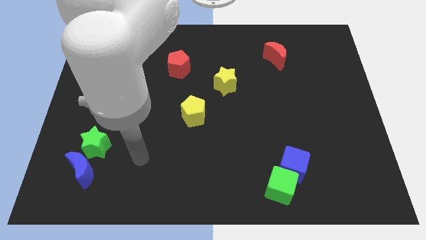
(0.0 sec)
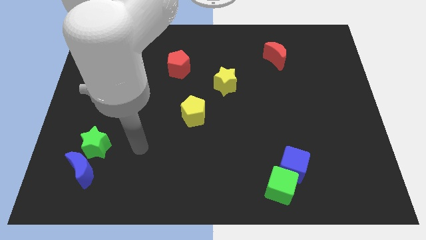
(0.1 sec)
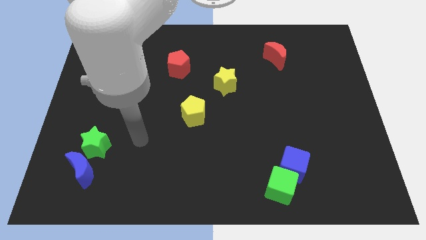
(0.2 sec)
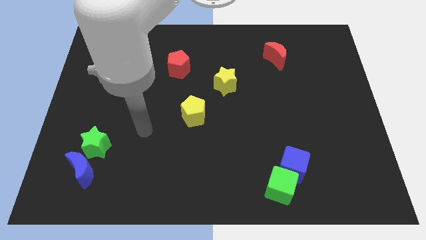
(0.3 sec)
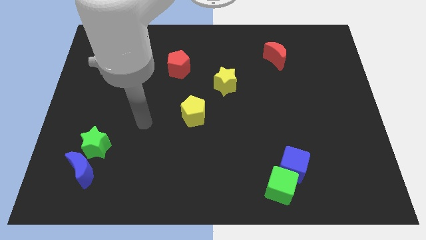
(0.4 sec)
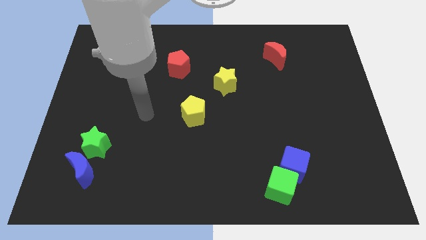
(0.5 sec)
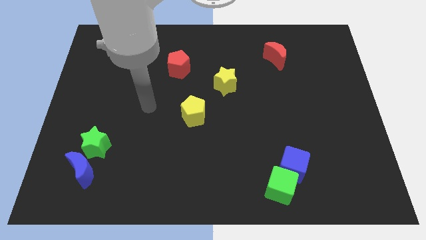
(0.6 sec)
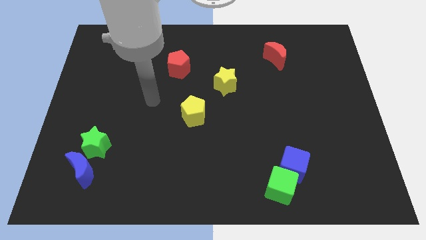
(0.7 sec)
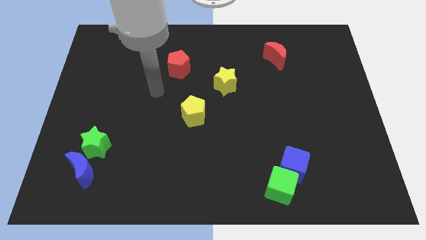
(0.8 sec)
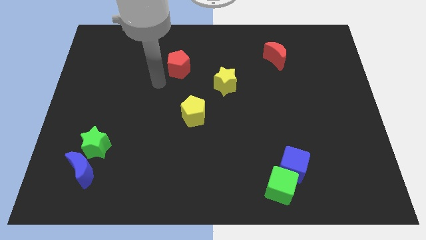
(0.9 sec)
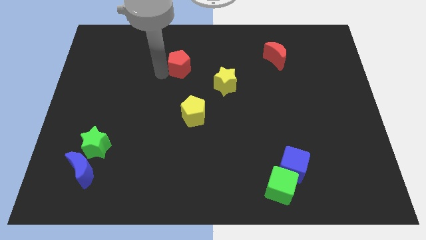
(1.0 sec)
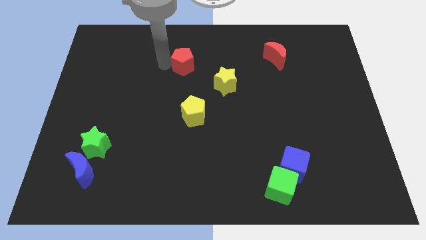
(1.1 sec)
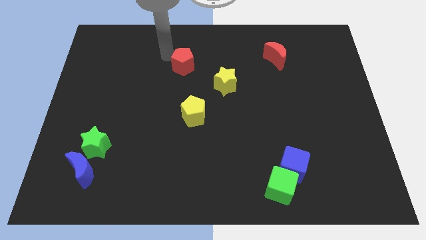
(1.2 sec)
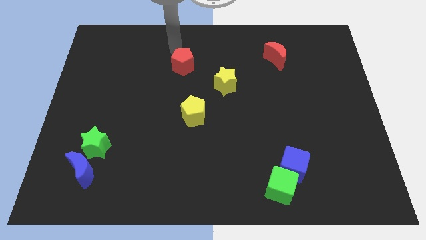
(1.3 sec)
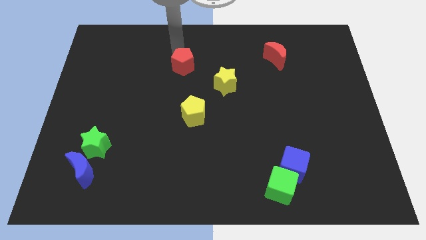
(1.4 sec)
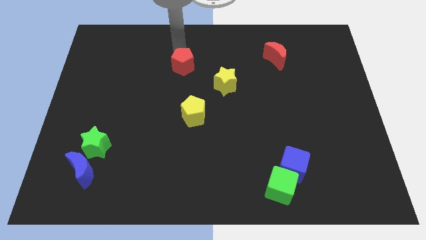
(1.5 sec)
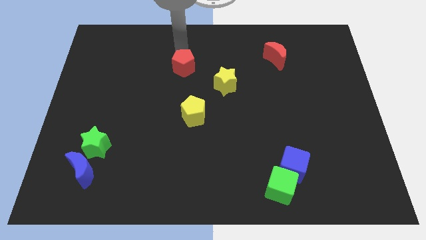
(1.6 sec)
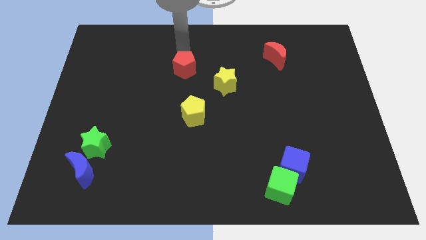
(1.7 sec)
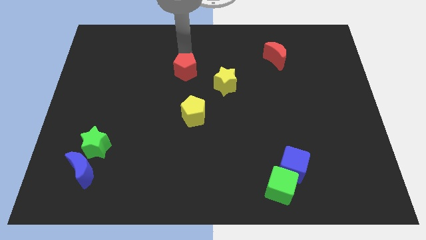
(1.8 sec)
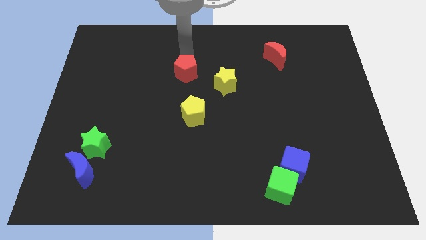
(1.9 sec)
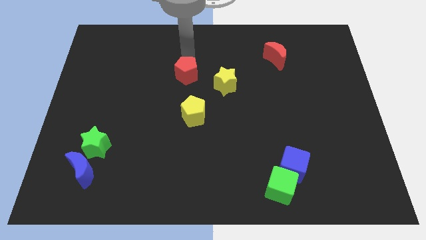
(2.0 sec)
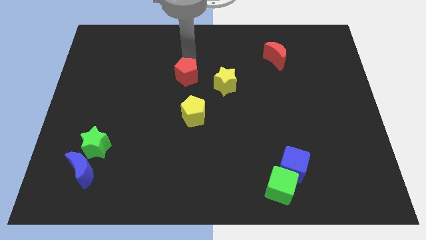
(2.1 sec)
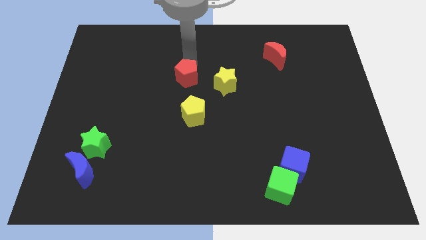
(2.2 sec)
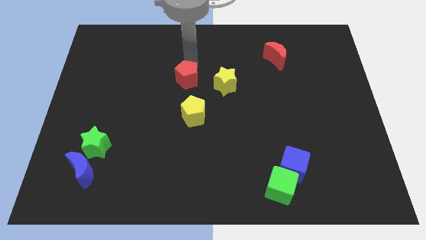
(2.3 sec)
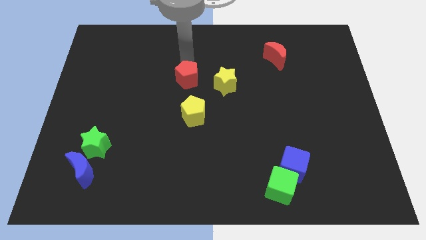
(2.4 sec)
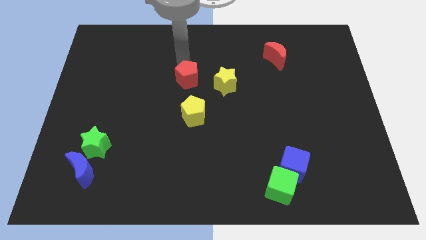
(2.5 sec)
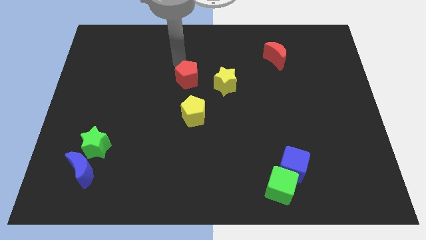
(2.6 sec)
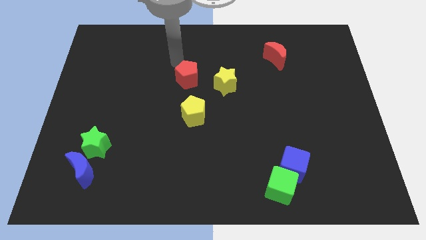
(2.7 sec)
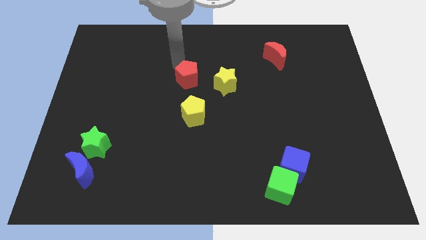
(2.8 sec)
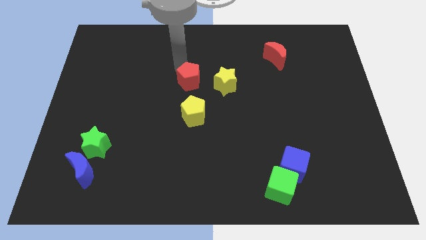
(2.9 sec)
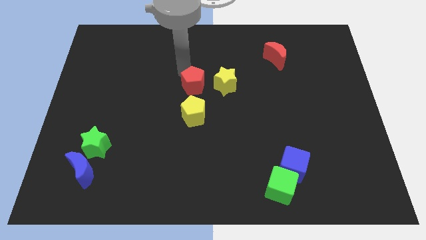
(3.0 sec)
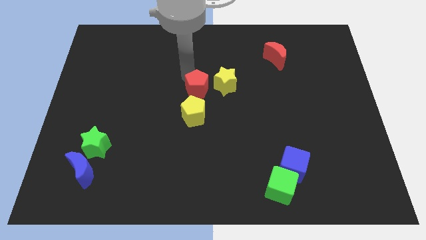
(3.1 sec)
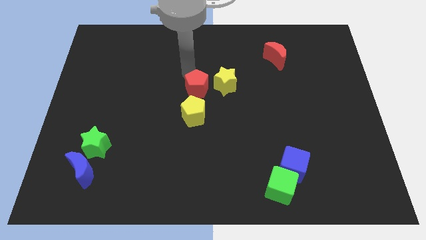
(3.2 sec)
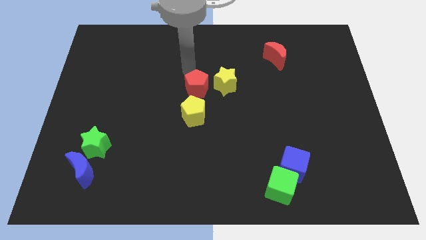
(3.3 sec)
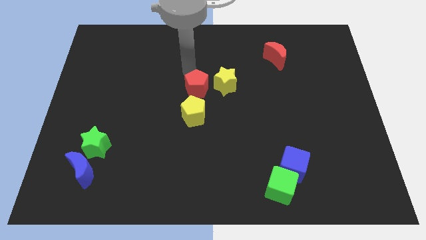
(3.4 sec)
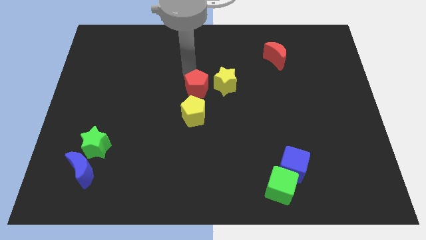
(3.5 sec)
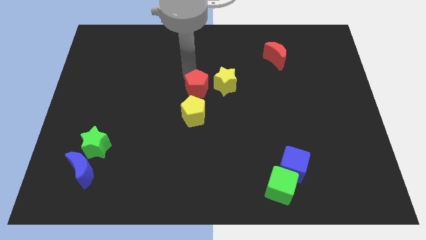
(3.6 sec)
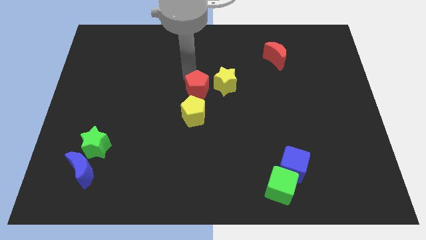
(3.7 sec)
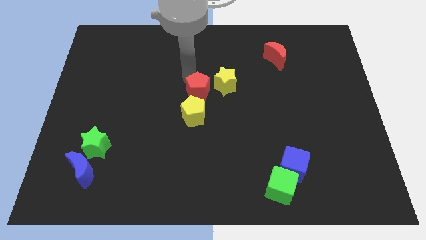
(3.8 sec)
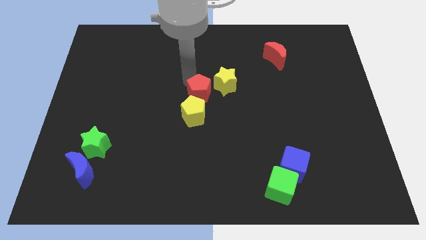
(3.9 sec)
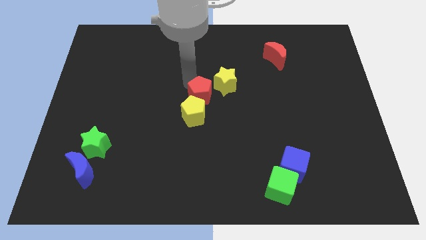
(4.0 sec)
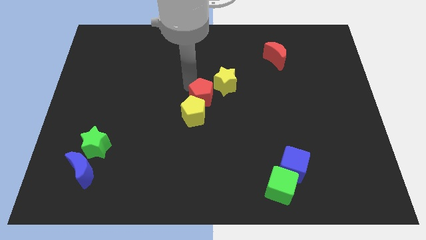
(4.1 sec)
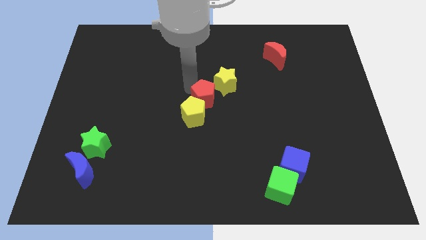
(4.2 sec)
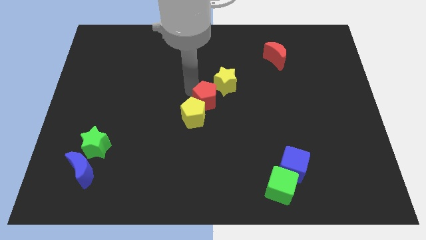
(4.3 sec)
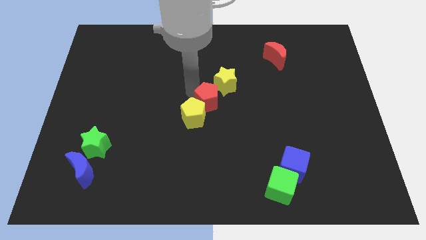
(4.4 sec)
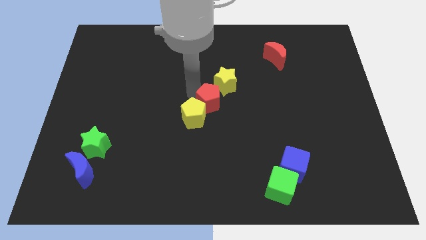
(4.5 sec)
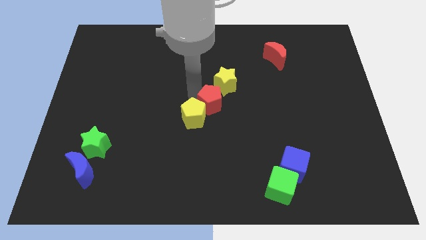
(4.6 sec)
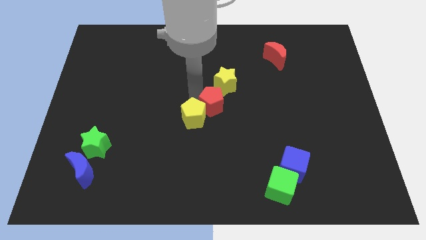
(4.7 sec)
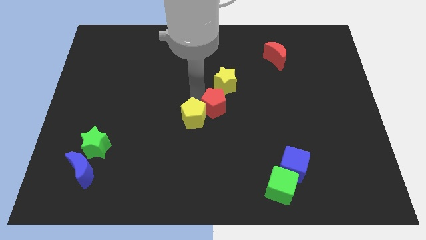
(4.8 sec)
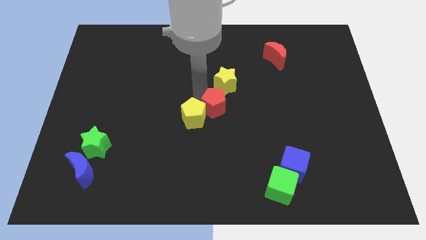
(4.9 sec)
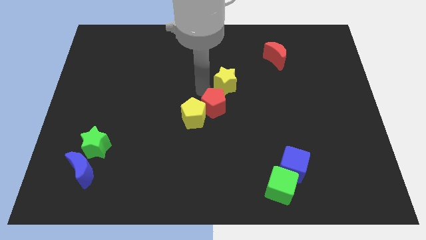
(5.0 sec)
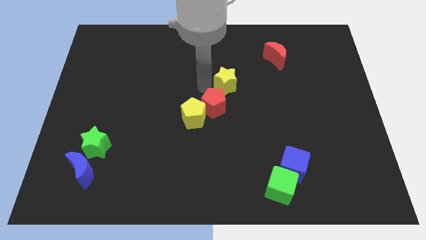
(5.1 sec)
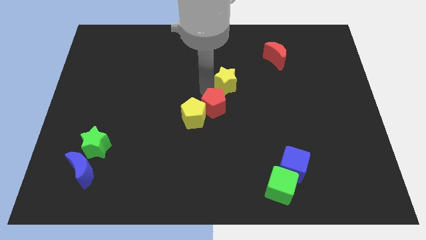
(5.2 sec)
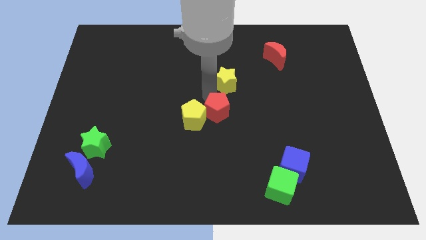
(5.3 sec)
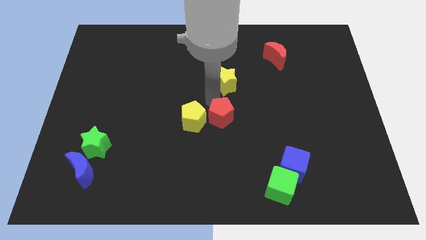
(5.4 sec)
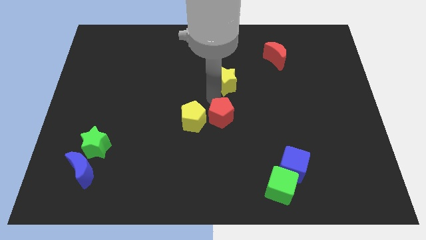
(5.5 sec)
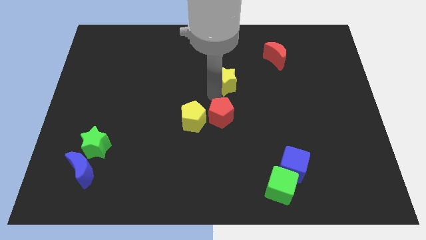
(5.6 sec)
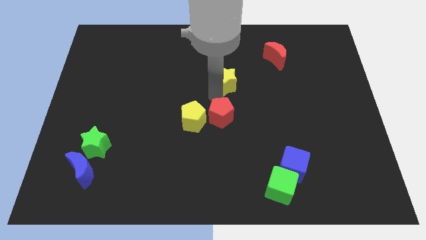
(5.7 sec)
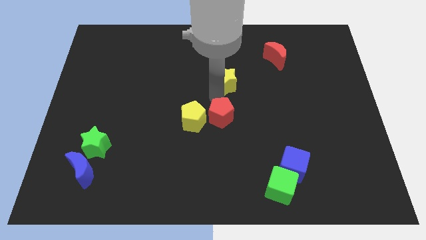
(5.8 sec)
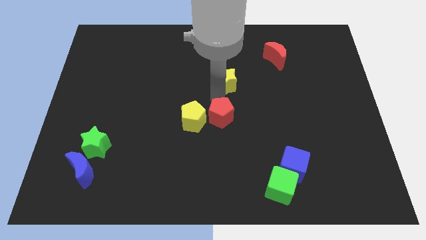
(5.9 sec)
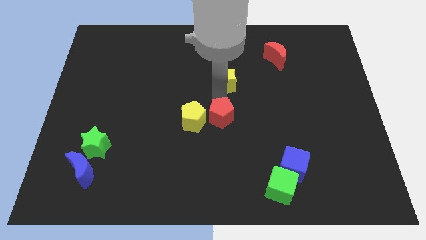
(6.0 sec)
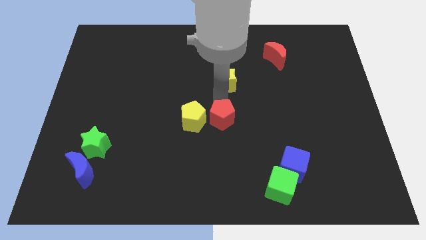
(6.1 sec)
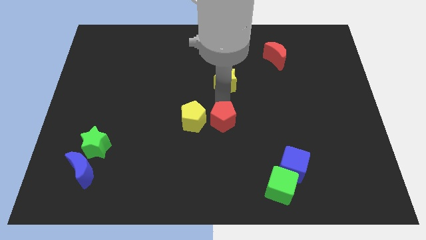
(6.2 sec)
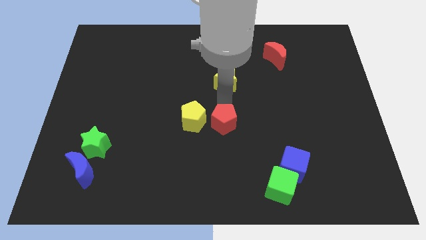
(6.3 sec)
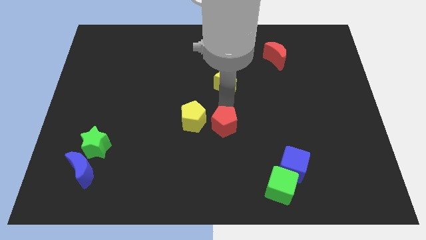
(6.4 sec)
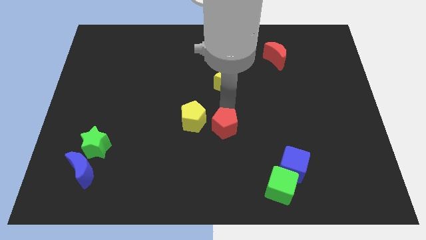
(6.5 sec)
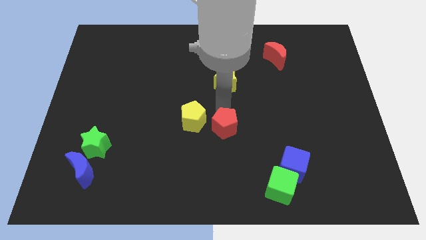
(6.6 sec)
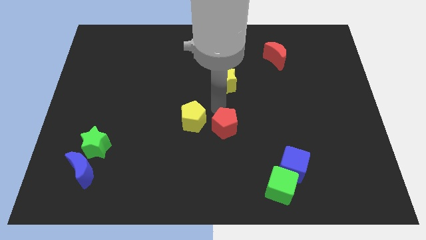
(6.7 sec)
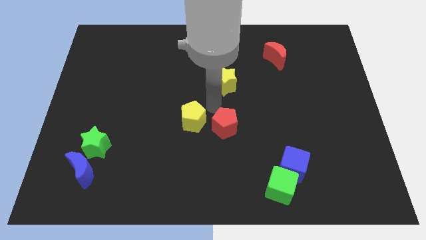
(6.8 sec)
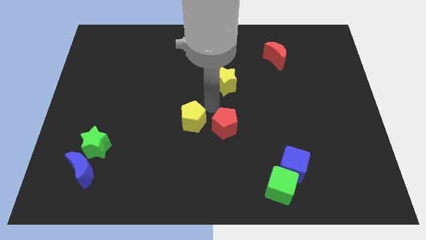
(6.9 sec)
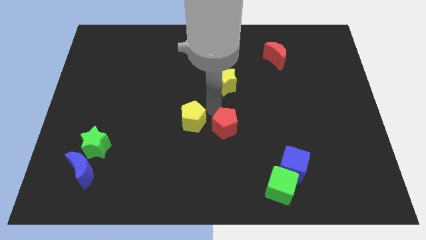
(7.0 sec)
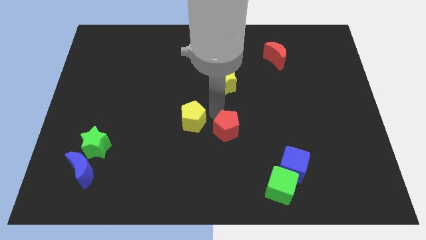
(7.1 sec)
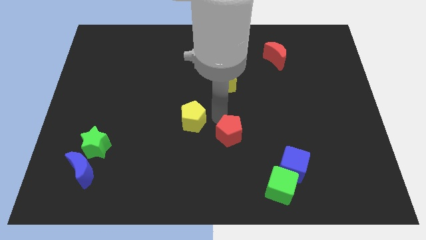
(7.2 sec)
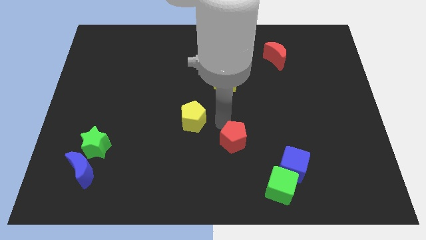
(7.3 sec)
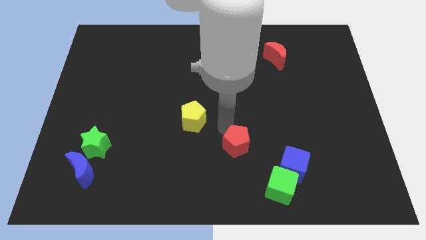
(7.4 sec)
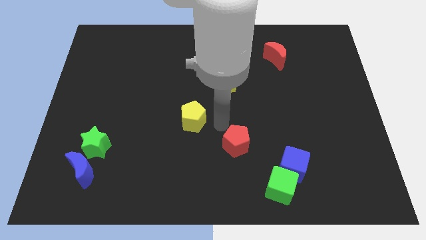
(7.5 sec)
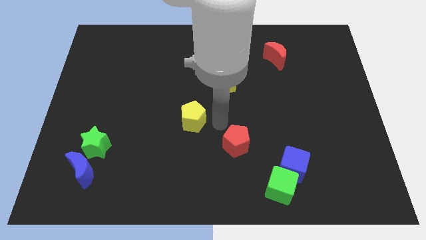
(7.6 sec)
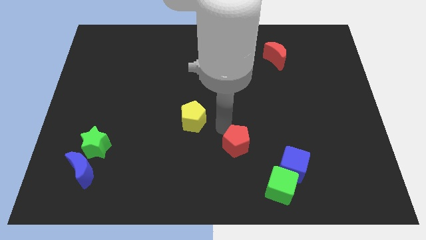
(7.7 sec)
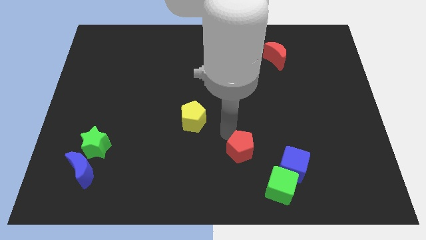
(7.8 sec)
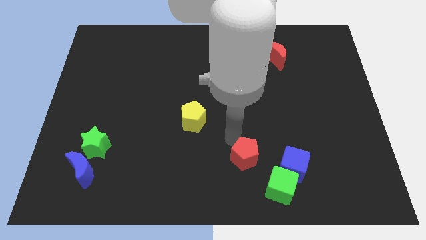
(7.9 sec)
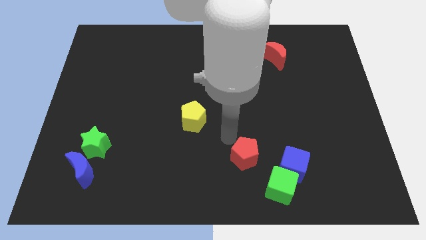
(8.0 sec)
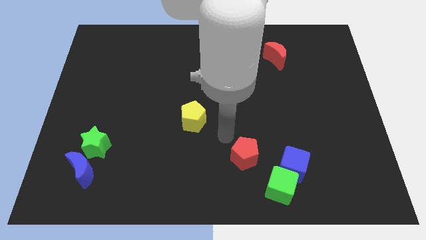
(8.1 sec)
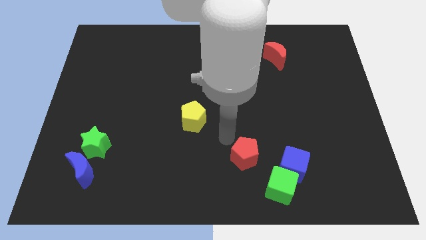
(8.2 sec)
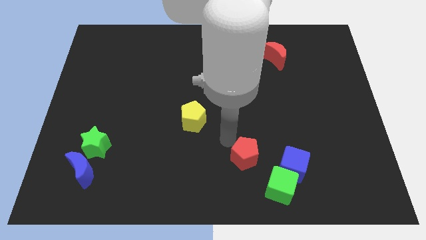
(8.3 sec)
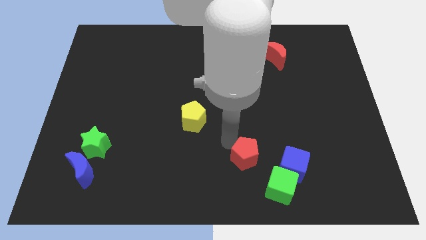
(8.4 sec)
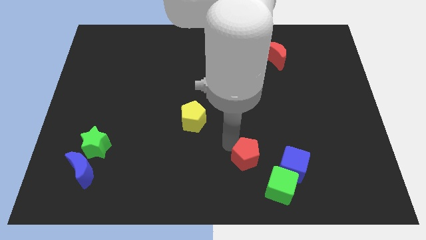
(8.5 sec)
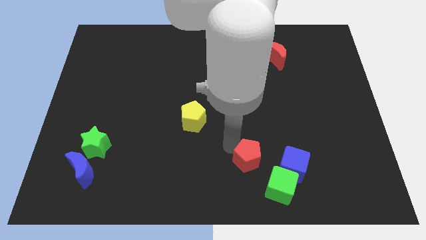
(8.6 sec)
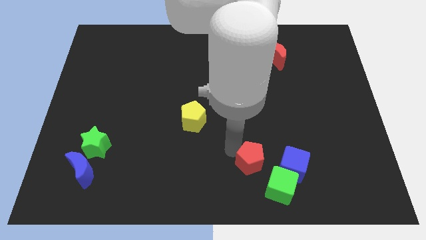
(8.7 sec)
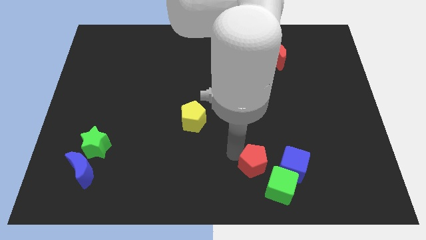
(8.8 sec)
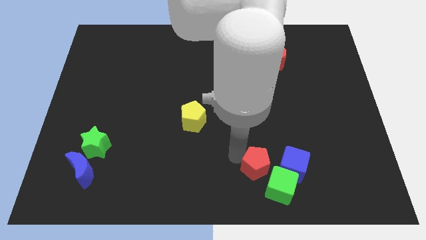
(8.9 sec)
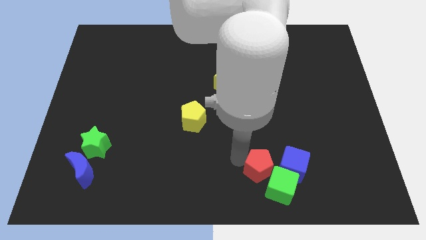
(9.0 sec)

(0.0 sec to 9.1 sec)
put the red pentagon next to the green cube
